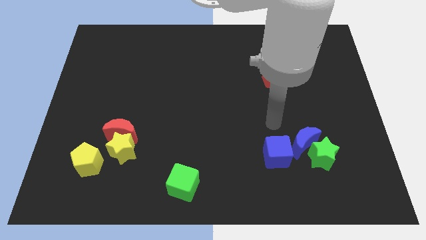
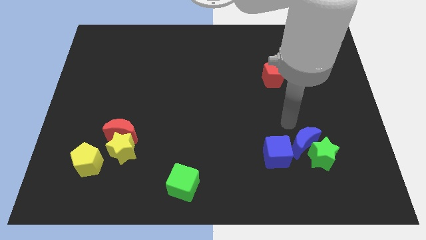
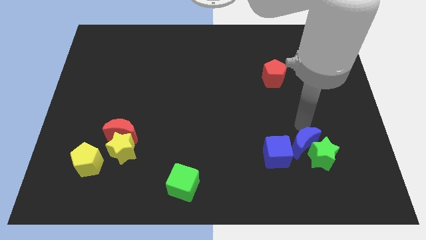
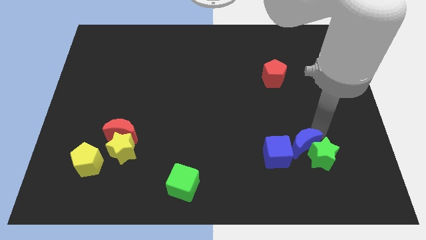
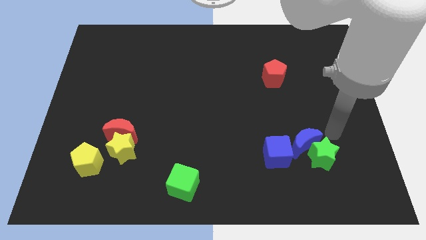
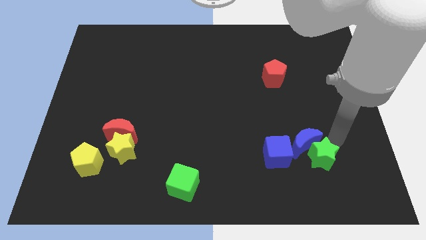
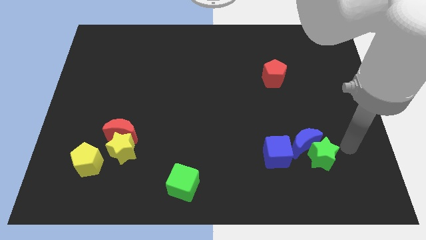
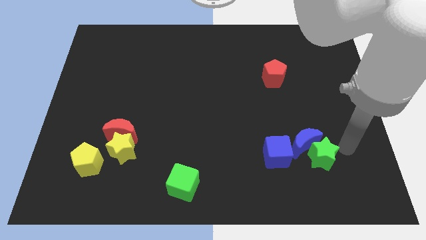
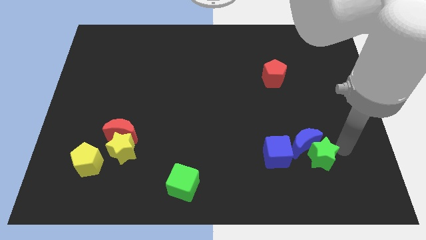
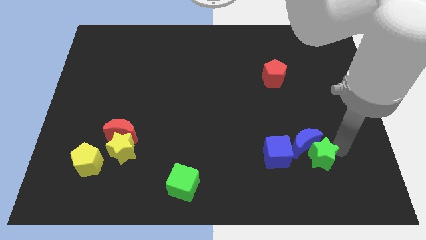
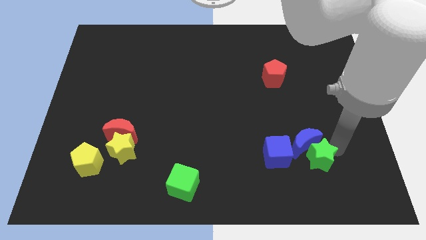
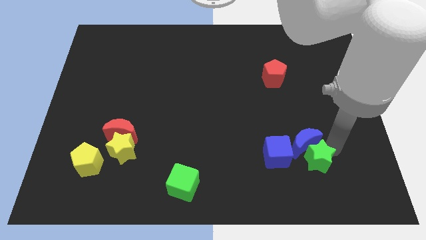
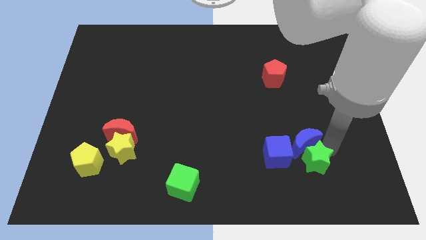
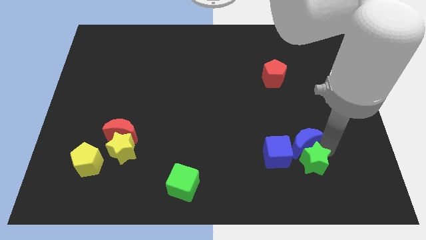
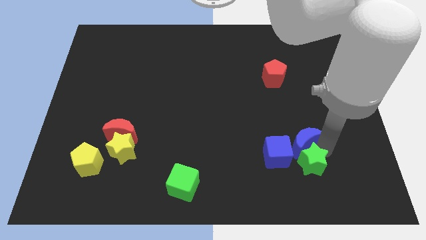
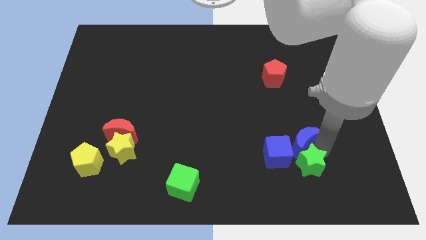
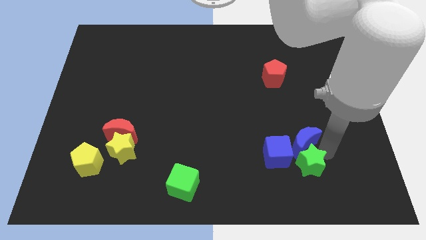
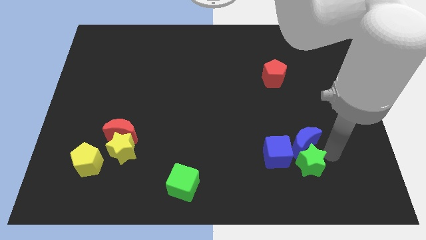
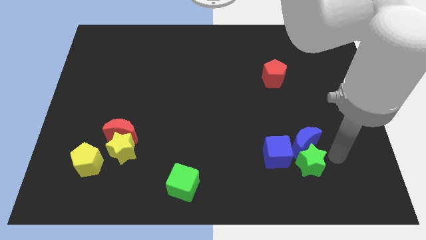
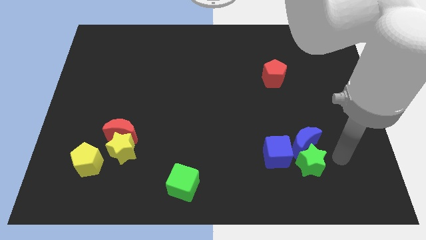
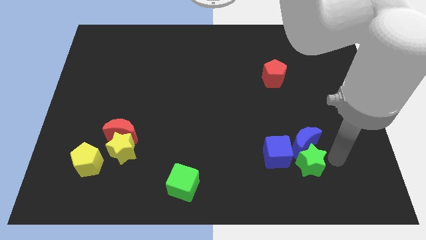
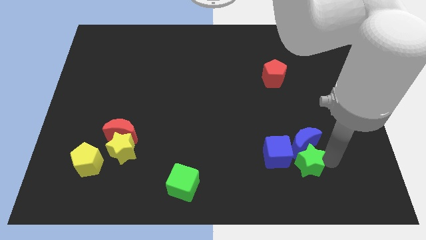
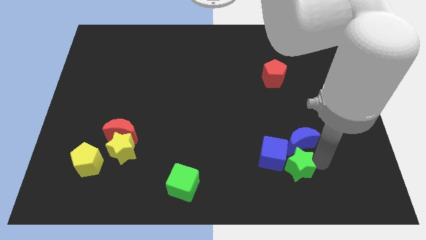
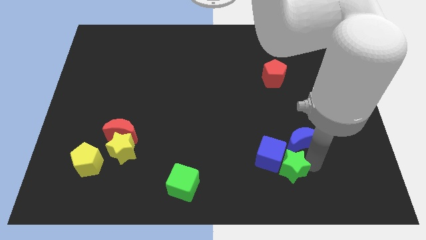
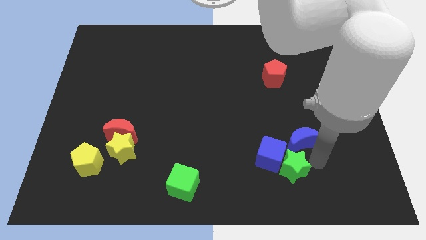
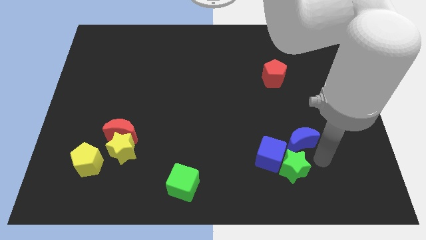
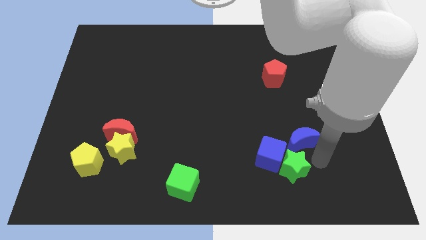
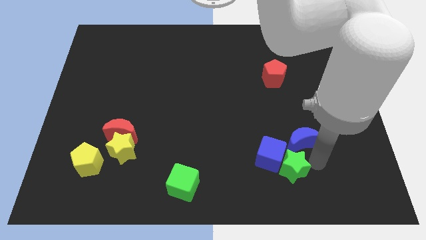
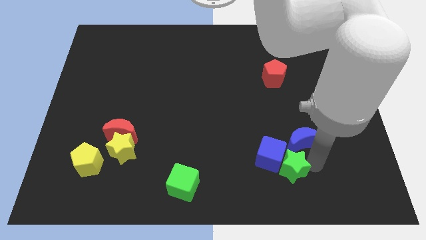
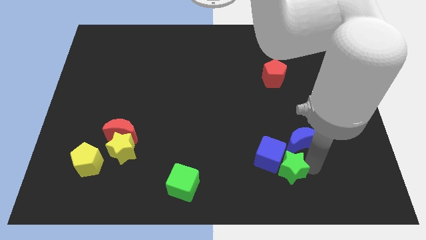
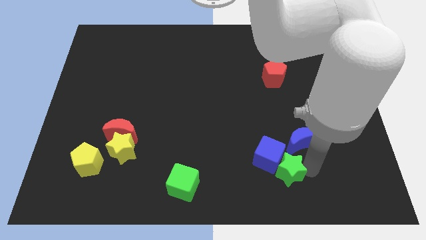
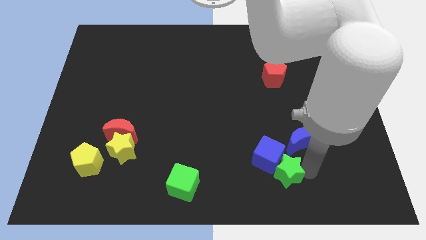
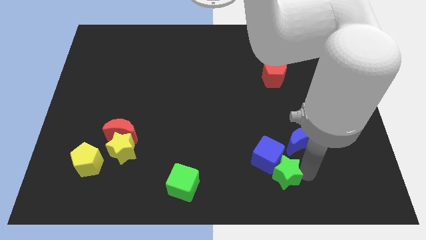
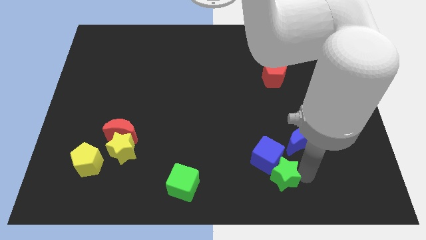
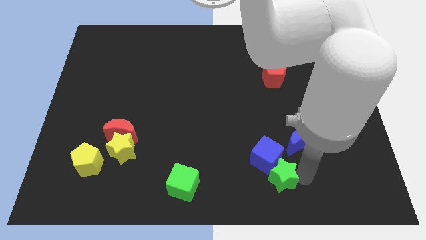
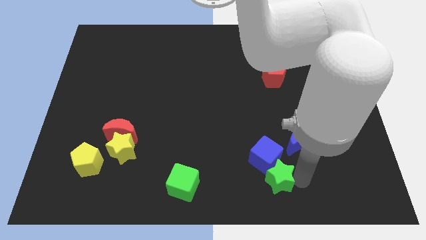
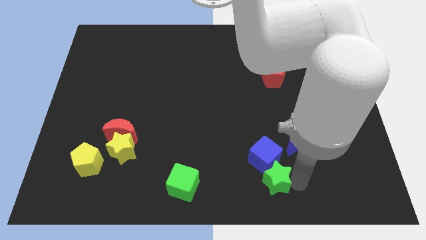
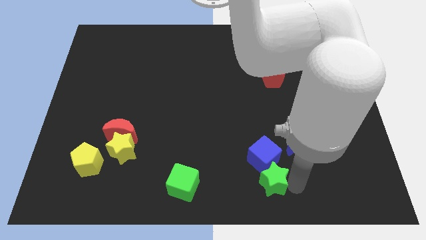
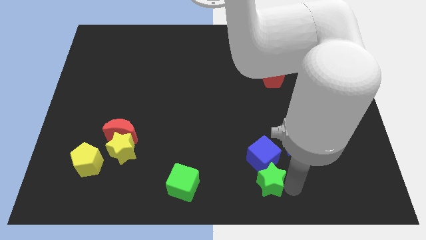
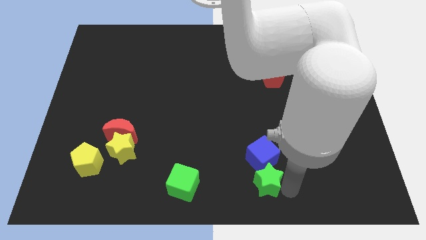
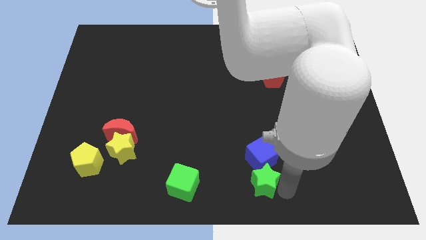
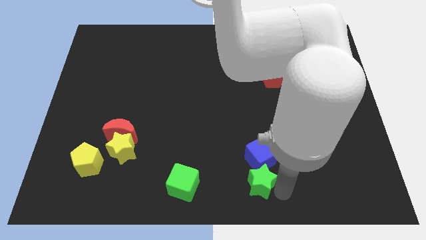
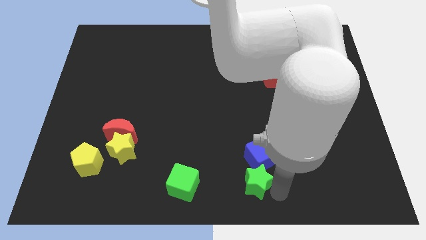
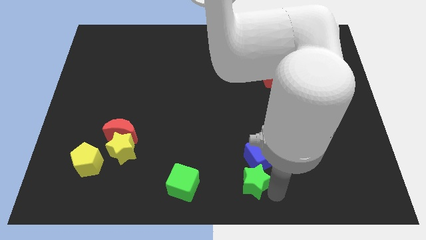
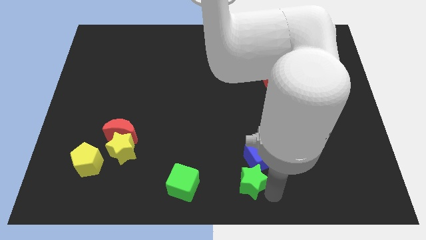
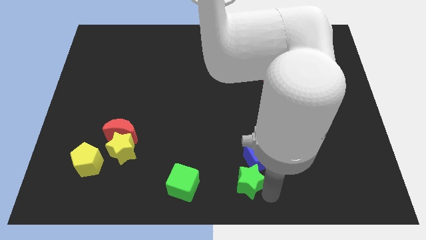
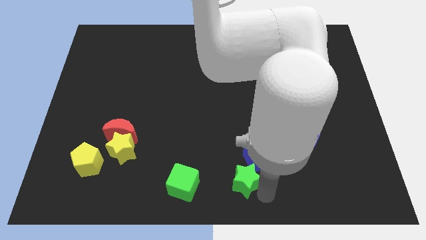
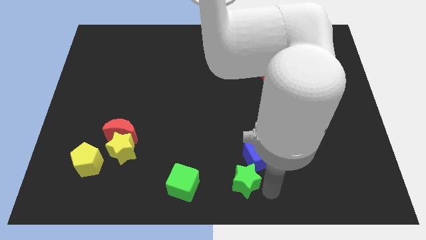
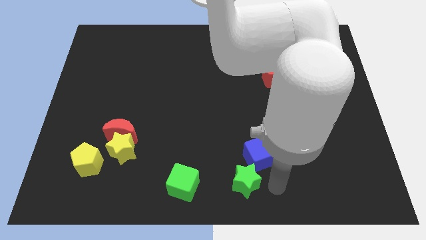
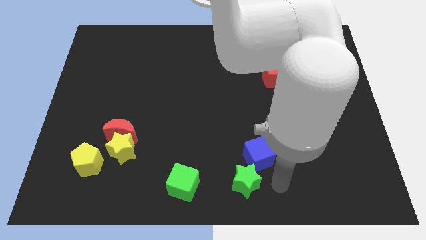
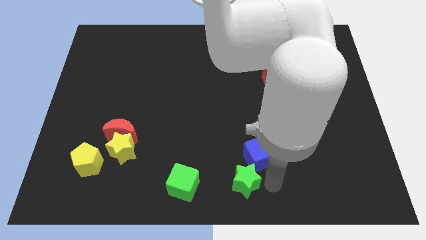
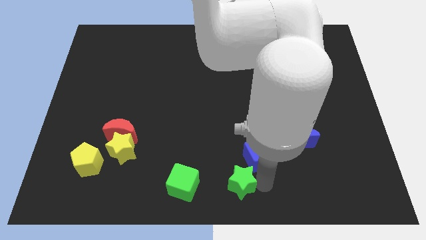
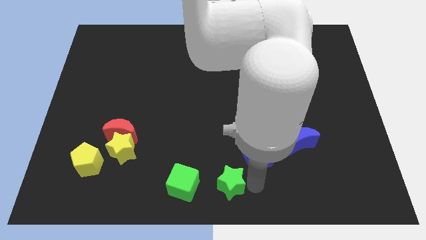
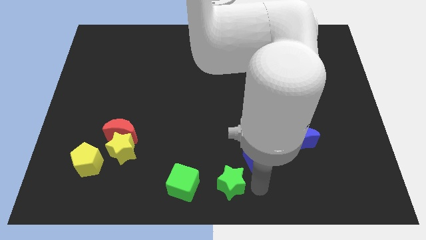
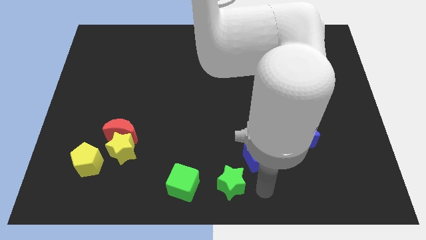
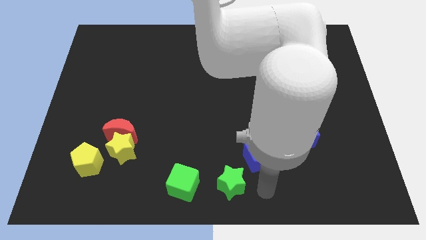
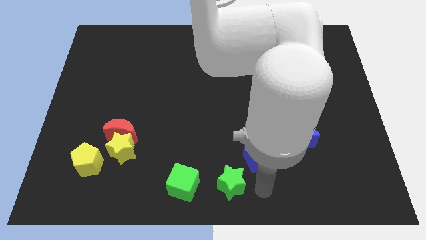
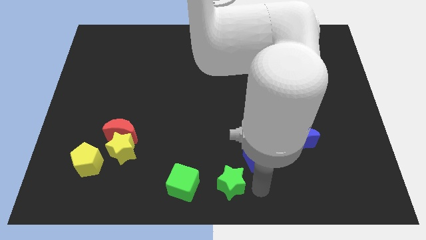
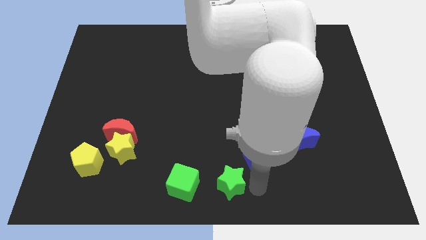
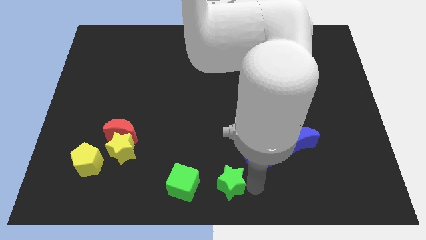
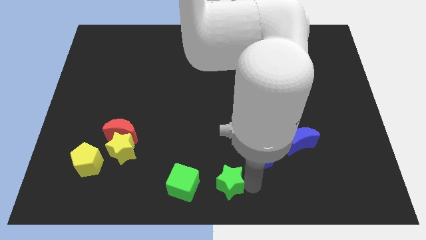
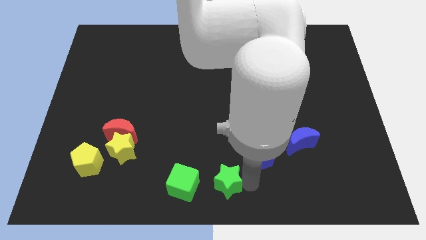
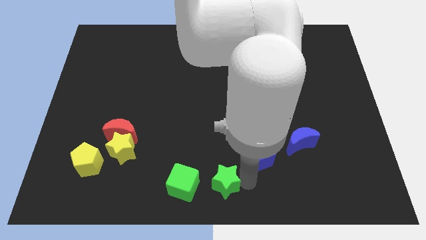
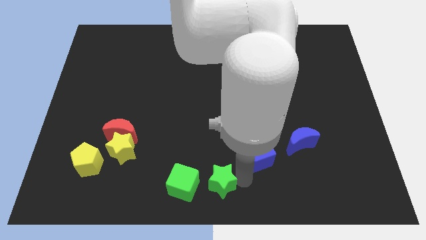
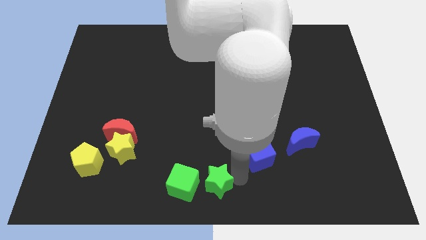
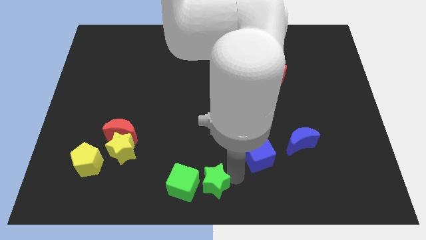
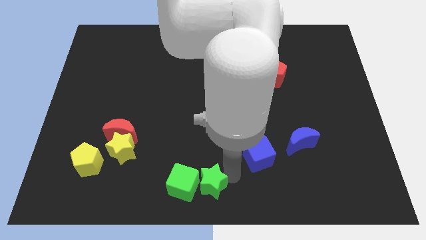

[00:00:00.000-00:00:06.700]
slide the green star close to the green cube

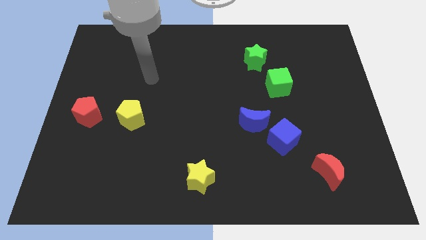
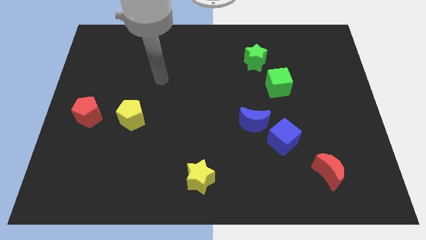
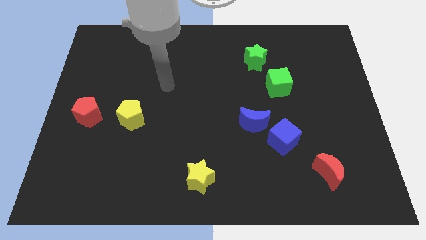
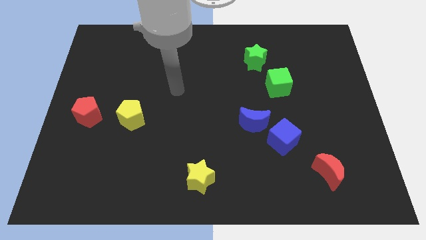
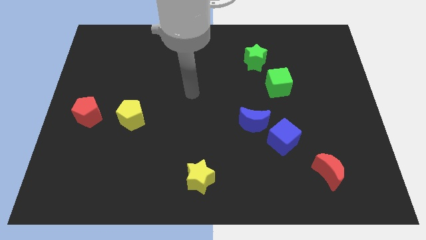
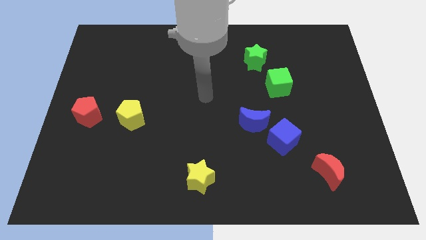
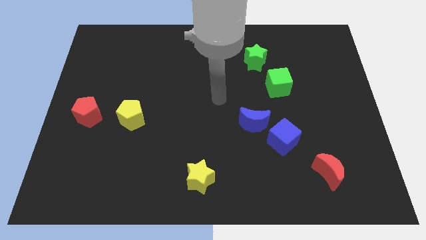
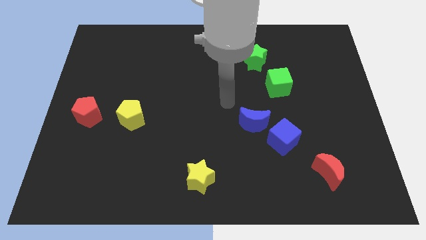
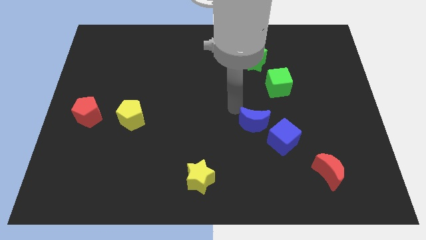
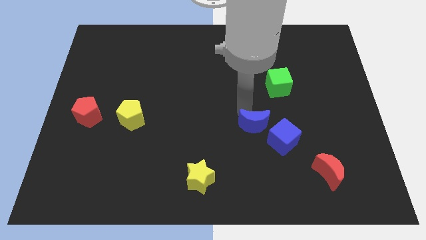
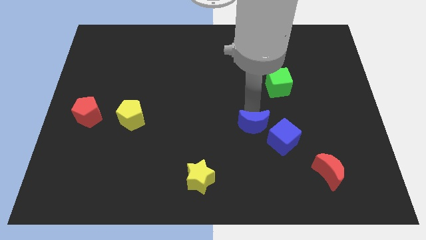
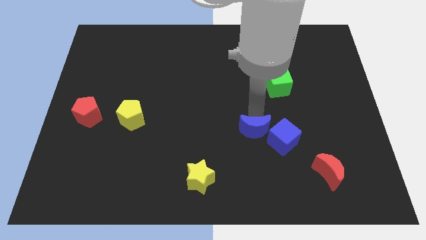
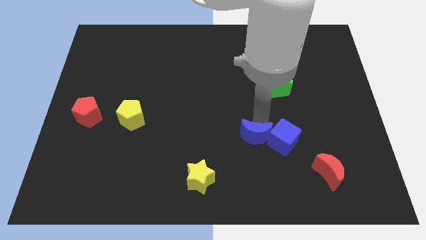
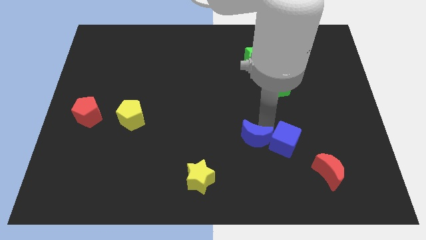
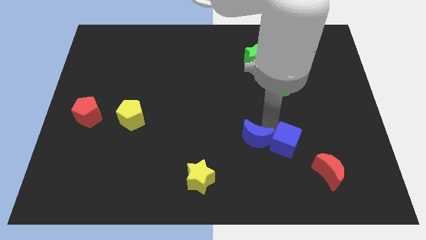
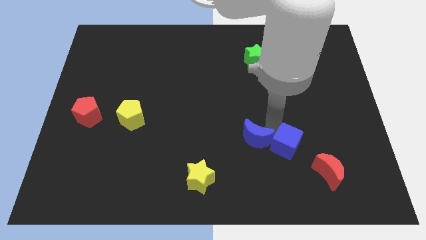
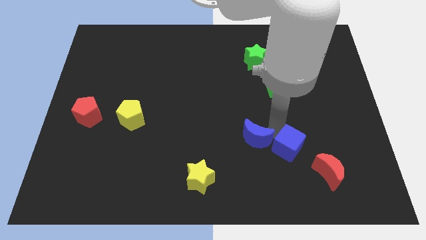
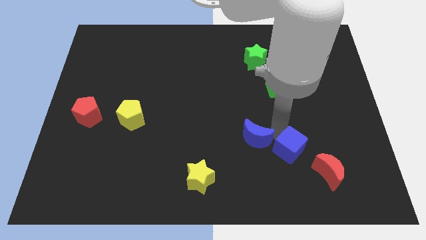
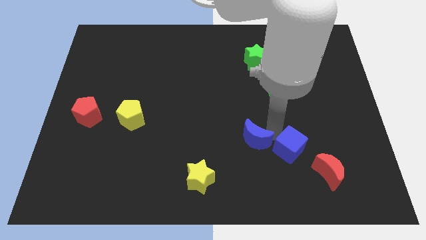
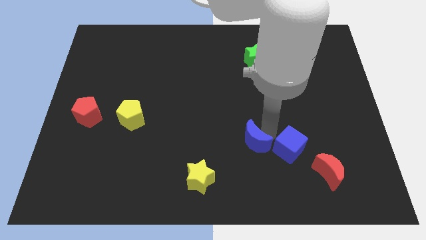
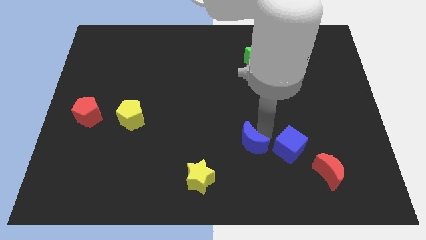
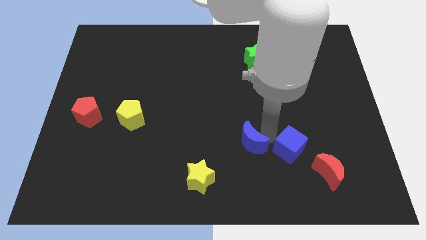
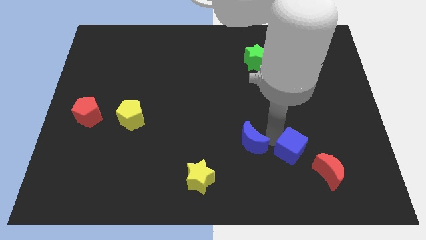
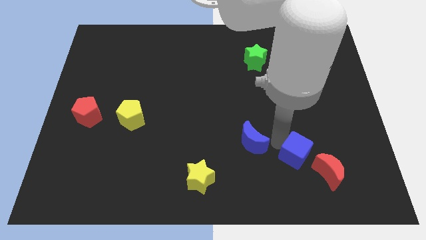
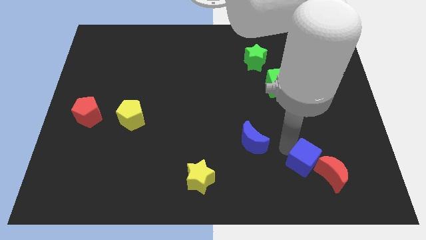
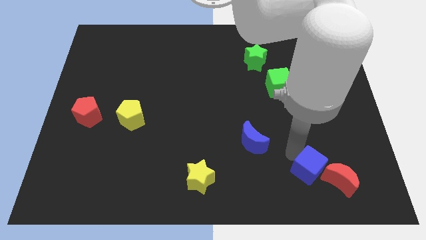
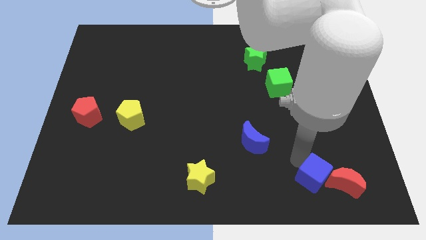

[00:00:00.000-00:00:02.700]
put the blue cube next to the red moon
